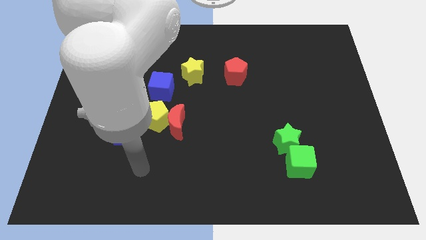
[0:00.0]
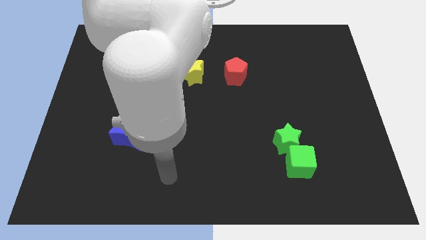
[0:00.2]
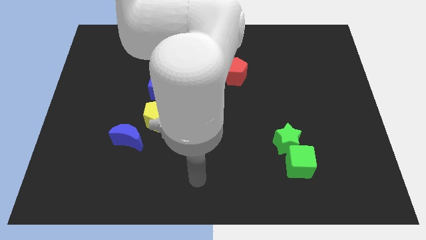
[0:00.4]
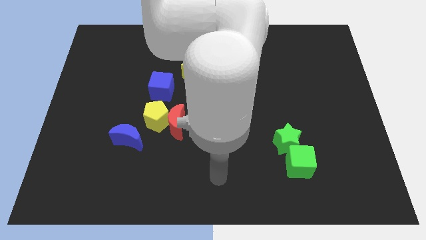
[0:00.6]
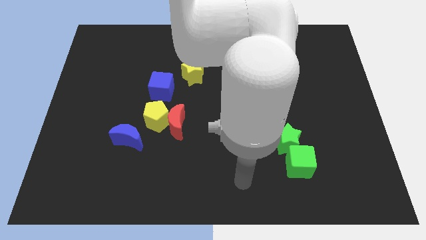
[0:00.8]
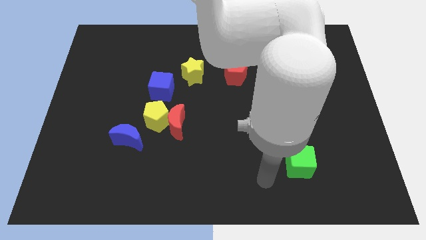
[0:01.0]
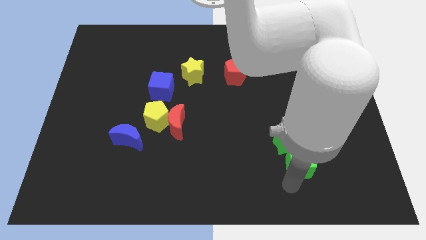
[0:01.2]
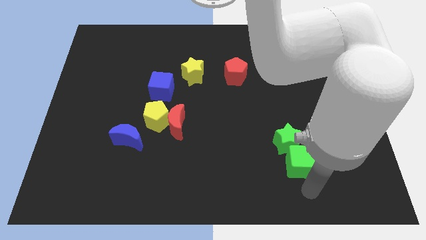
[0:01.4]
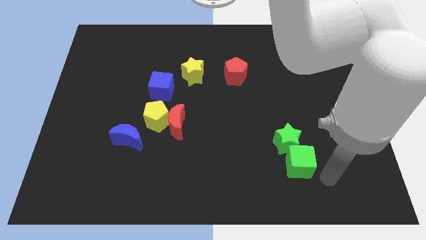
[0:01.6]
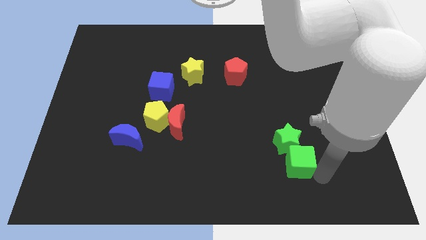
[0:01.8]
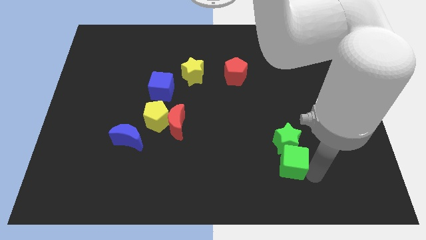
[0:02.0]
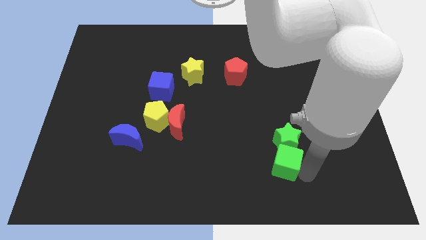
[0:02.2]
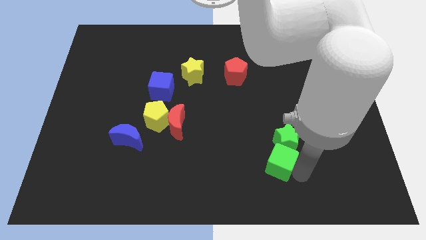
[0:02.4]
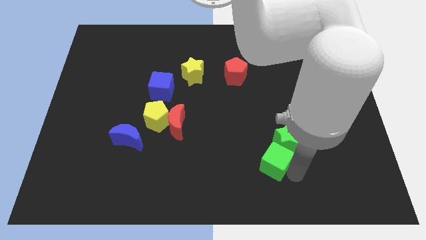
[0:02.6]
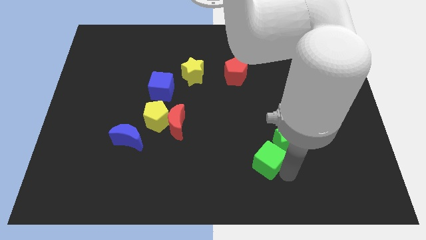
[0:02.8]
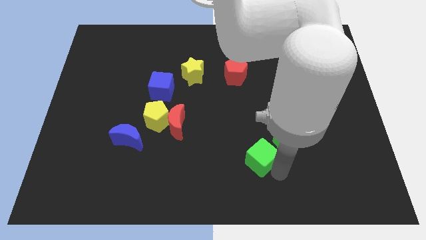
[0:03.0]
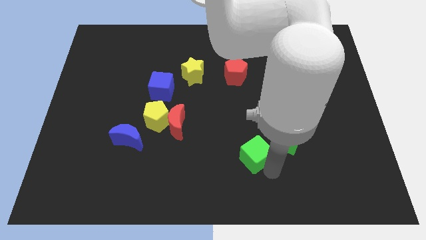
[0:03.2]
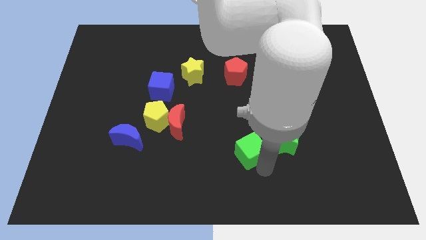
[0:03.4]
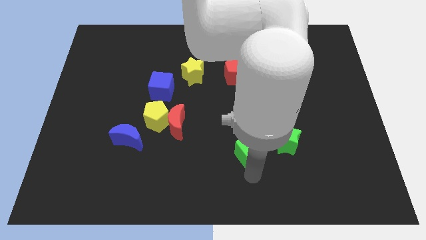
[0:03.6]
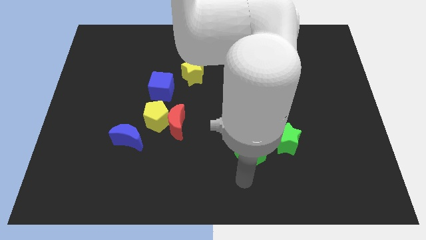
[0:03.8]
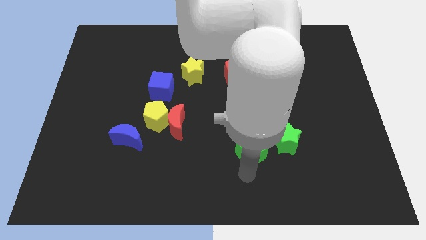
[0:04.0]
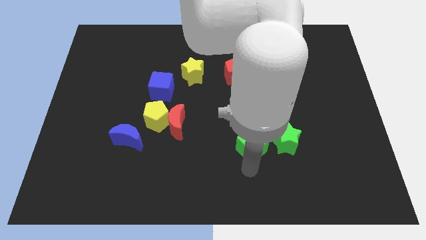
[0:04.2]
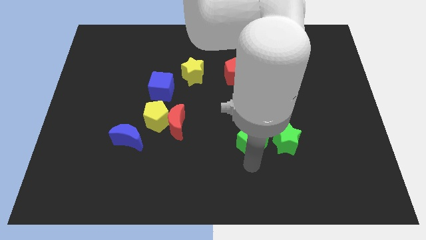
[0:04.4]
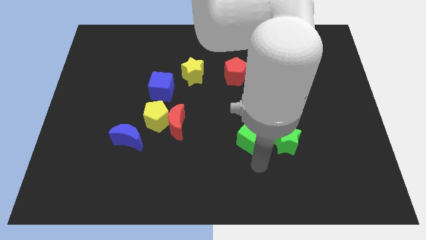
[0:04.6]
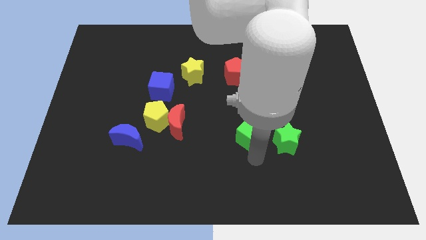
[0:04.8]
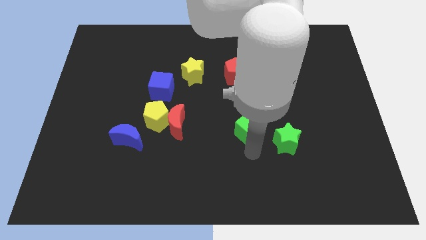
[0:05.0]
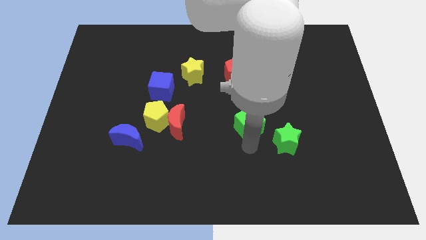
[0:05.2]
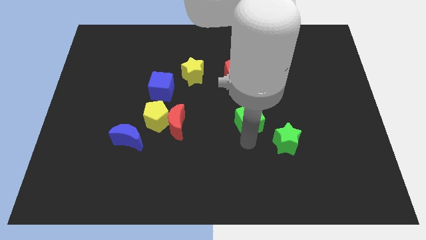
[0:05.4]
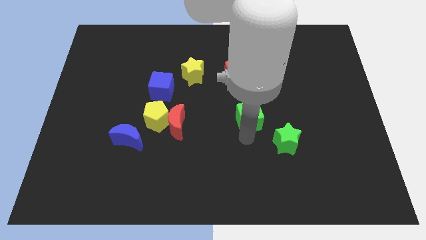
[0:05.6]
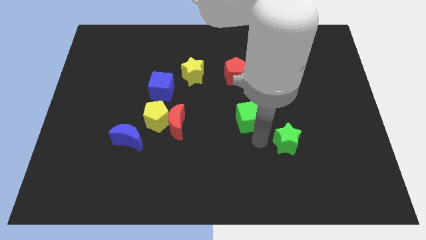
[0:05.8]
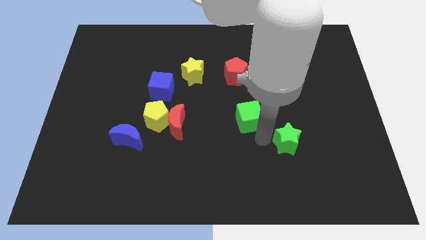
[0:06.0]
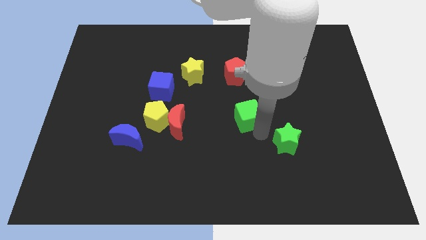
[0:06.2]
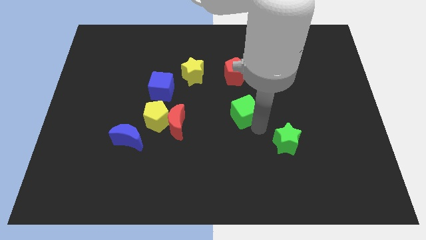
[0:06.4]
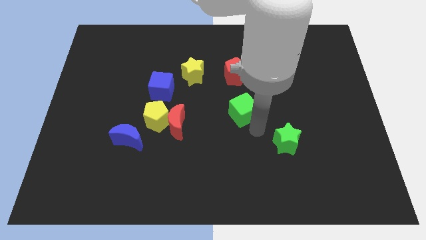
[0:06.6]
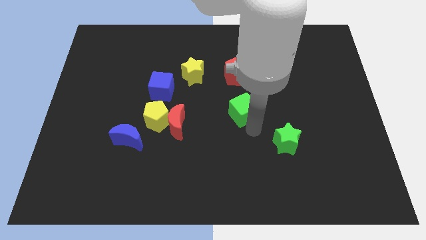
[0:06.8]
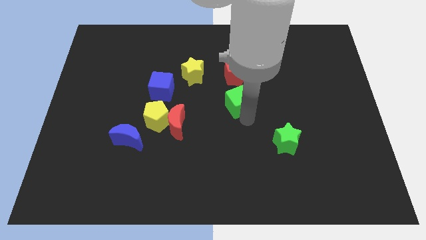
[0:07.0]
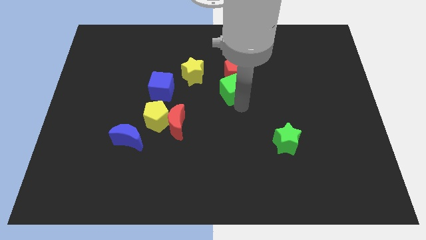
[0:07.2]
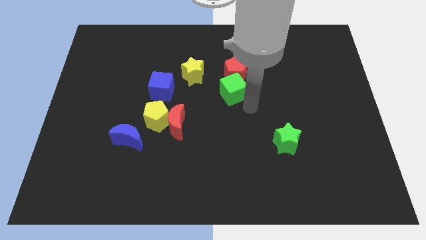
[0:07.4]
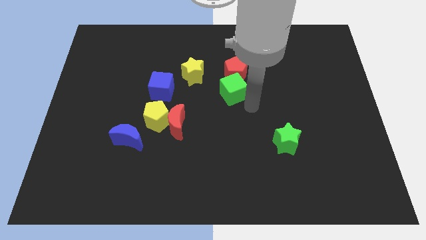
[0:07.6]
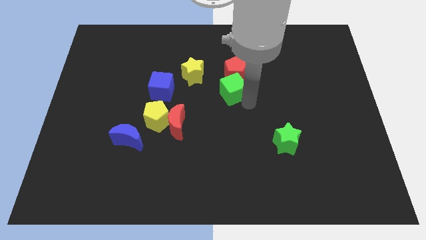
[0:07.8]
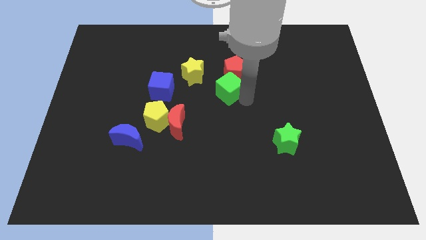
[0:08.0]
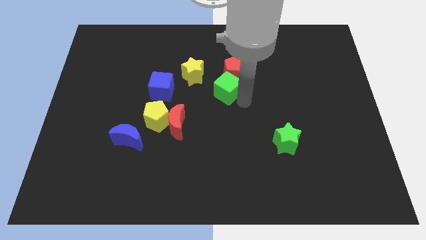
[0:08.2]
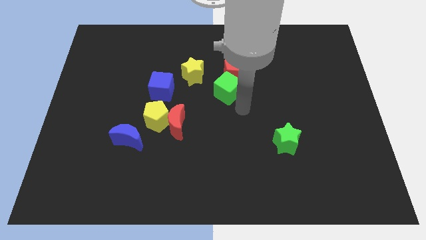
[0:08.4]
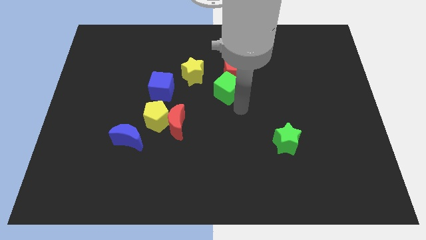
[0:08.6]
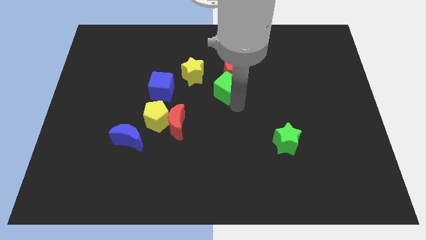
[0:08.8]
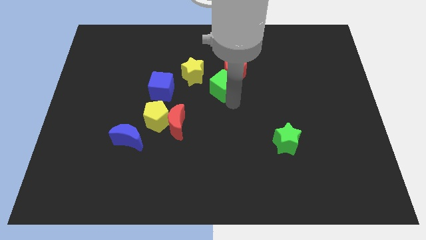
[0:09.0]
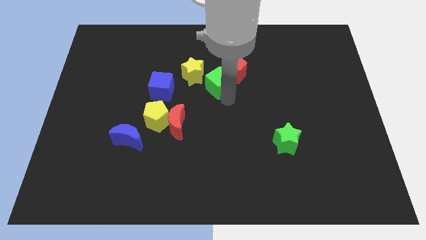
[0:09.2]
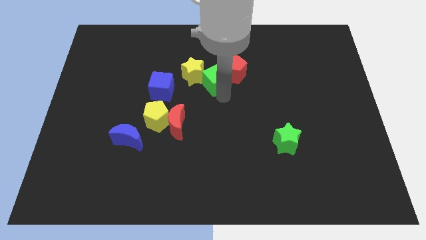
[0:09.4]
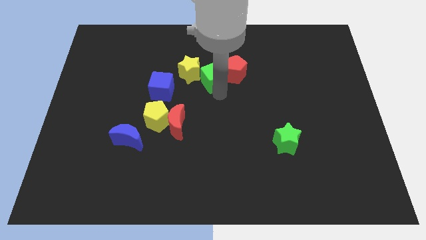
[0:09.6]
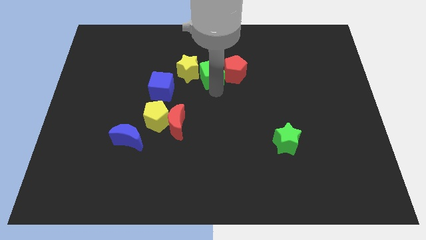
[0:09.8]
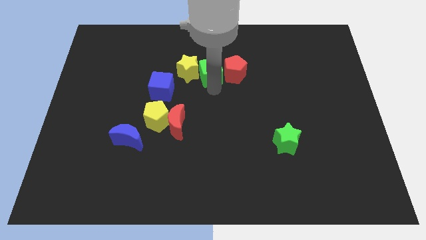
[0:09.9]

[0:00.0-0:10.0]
slide the green cube to the top right side of the yellow star

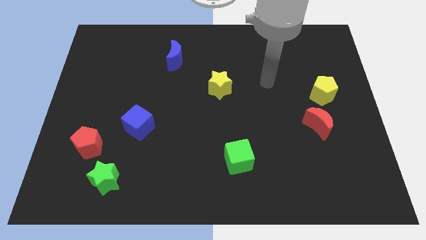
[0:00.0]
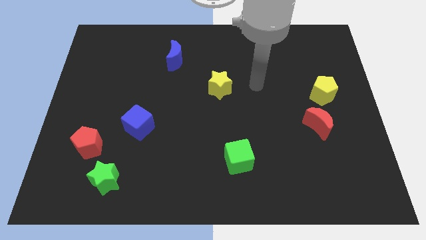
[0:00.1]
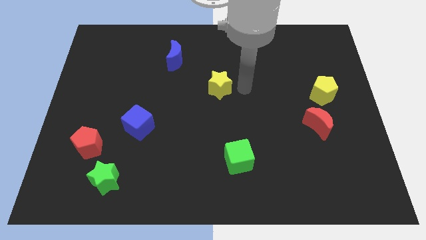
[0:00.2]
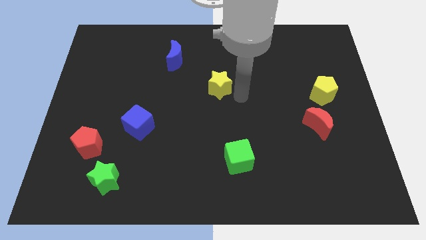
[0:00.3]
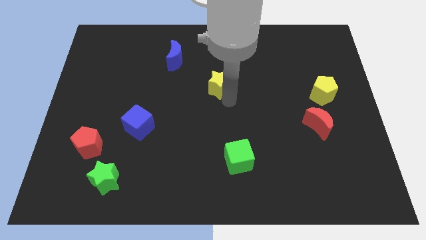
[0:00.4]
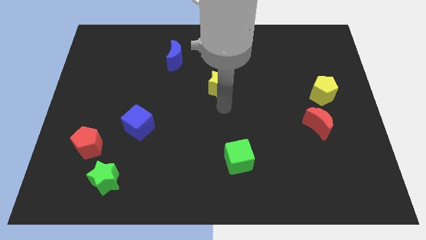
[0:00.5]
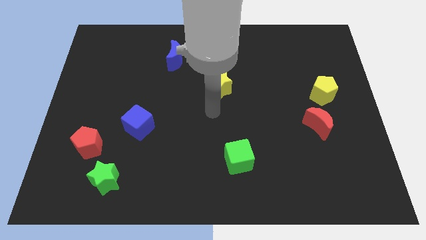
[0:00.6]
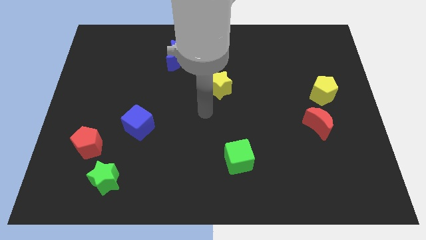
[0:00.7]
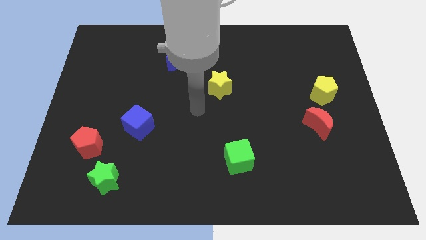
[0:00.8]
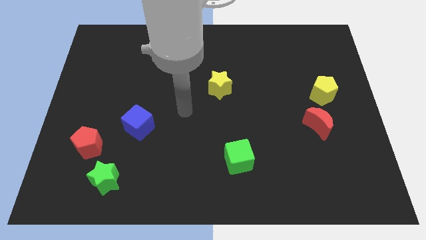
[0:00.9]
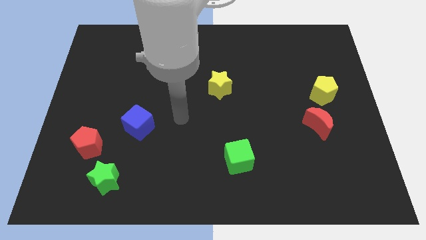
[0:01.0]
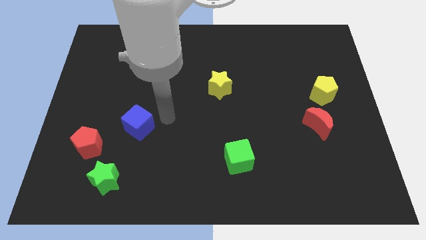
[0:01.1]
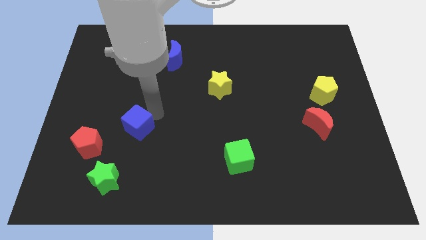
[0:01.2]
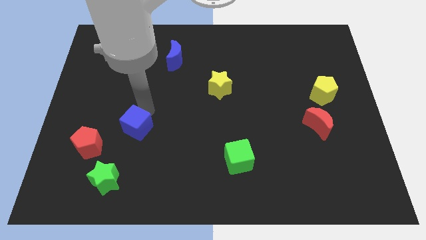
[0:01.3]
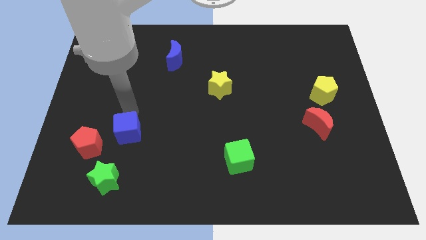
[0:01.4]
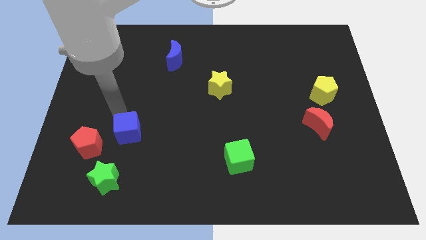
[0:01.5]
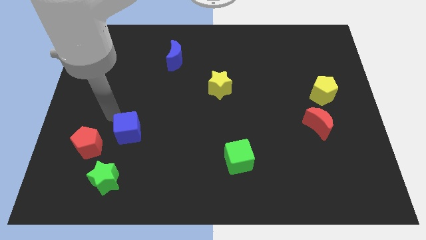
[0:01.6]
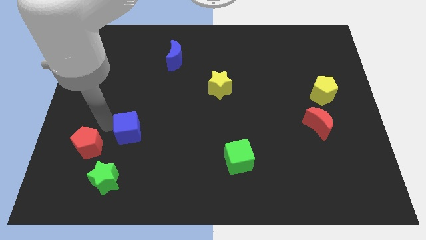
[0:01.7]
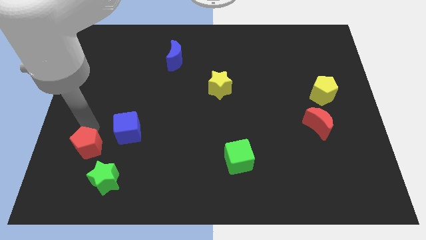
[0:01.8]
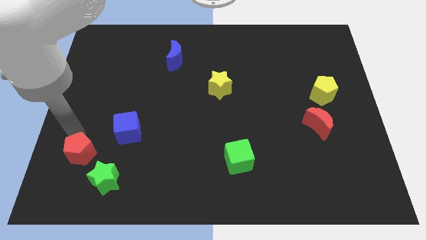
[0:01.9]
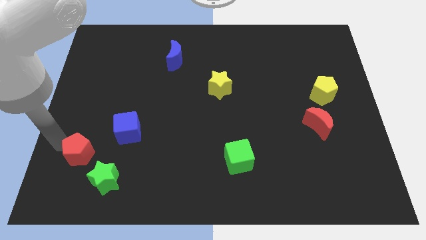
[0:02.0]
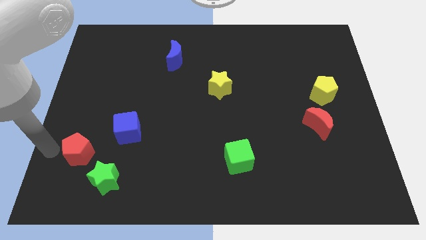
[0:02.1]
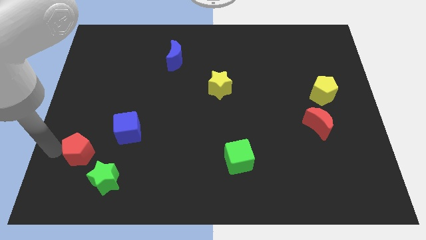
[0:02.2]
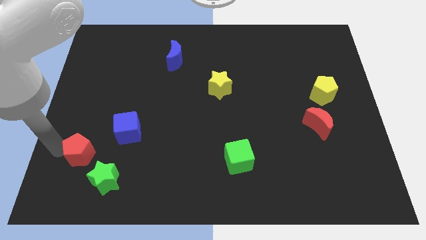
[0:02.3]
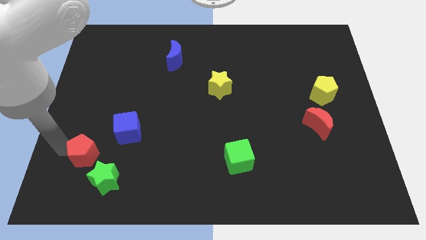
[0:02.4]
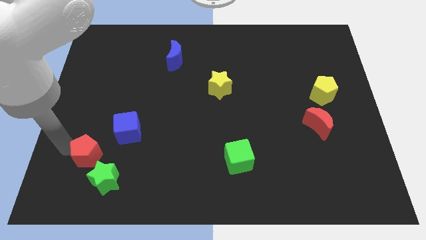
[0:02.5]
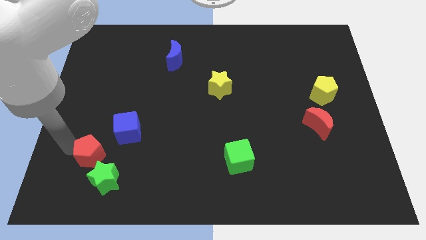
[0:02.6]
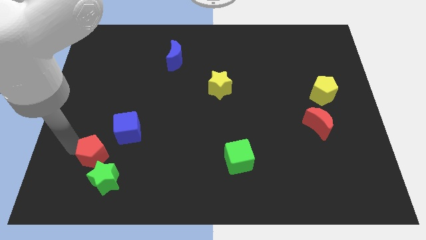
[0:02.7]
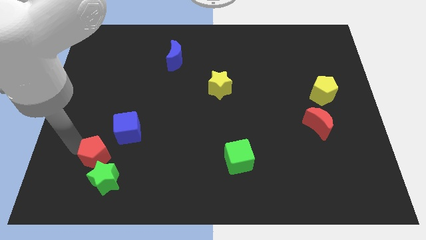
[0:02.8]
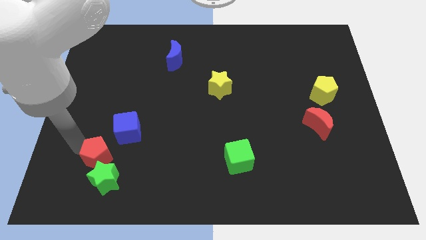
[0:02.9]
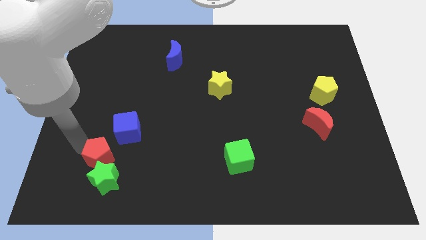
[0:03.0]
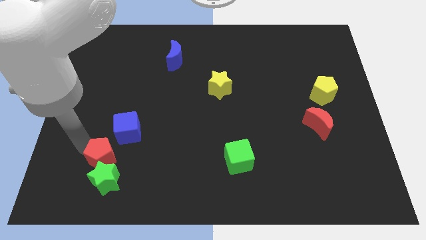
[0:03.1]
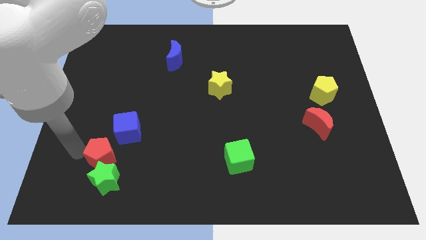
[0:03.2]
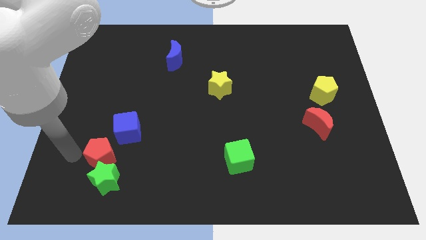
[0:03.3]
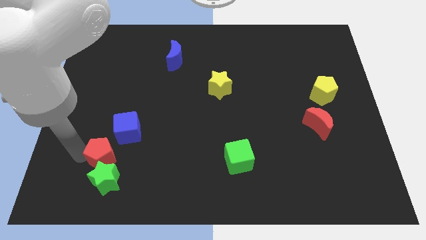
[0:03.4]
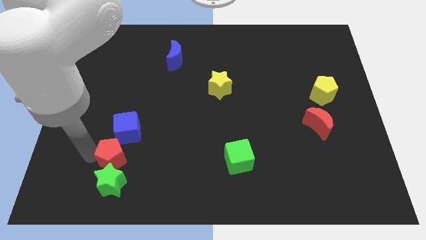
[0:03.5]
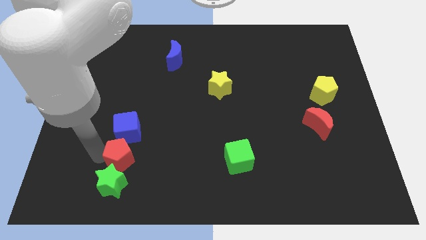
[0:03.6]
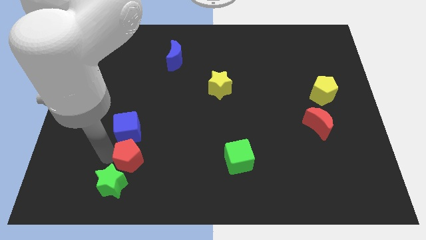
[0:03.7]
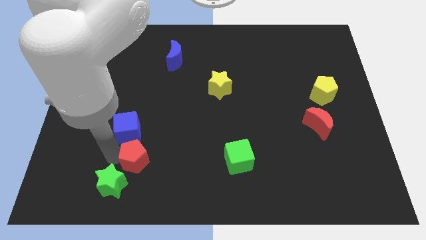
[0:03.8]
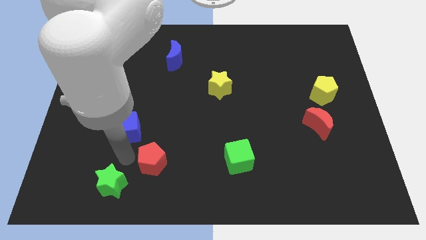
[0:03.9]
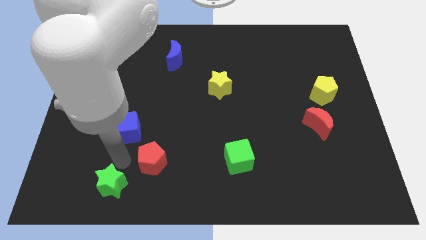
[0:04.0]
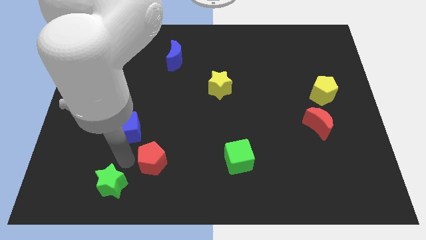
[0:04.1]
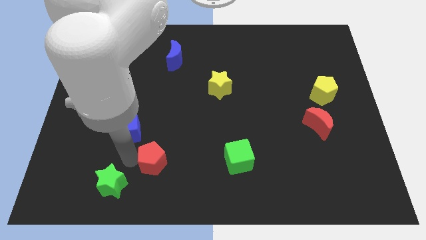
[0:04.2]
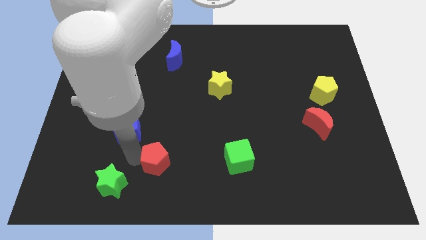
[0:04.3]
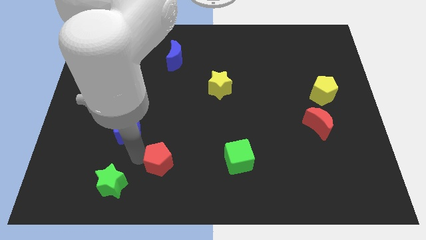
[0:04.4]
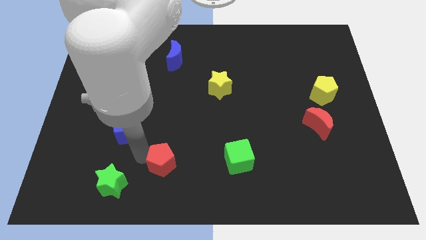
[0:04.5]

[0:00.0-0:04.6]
push the red pentagon to the left of the green cube
